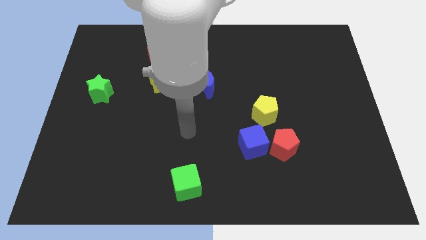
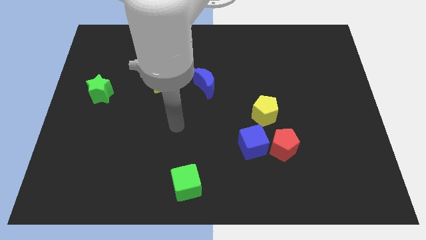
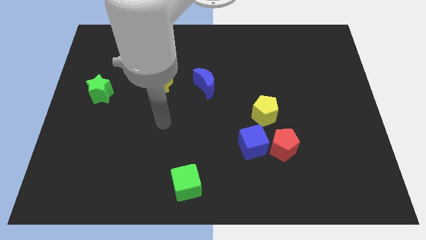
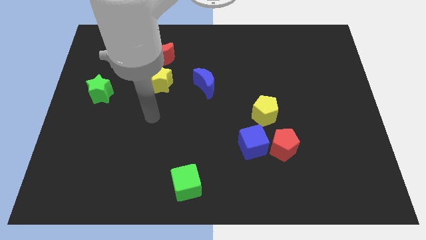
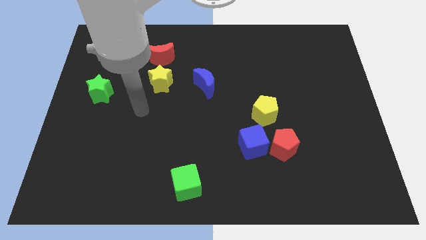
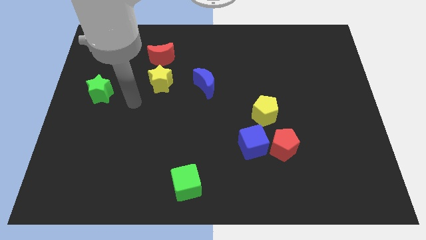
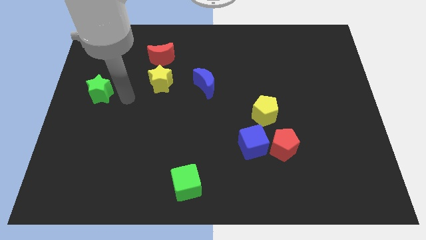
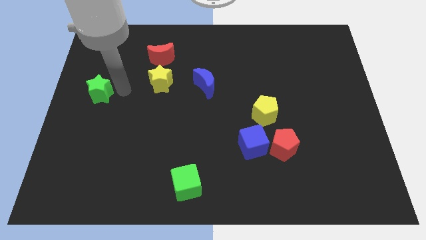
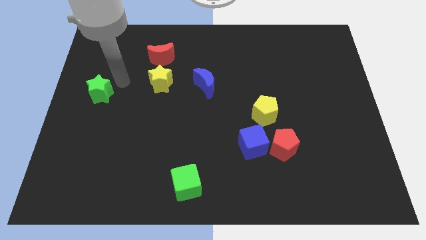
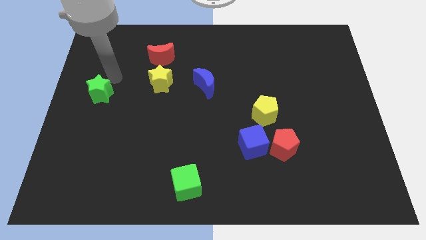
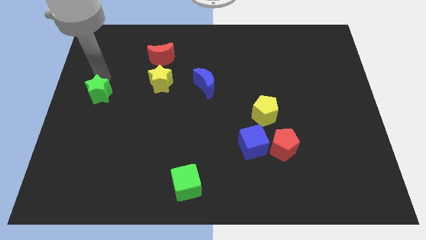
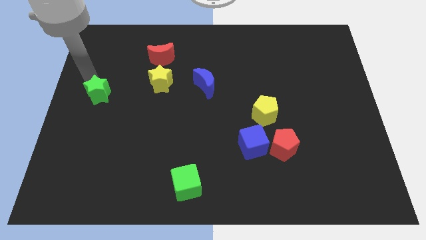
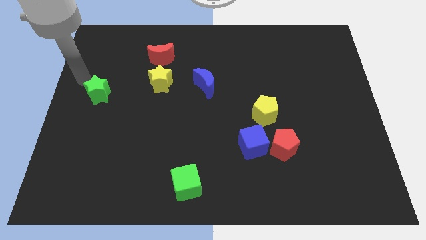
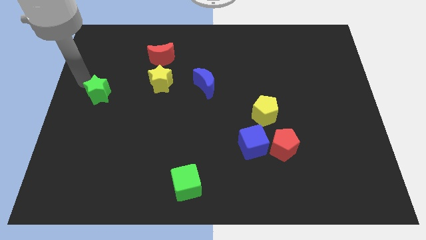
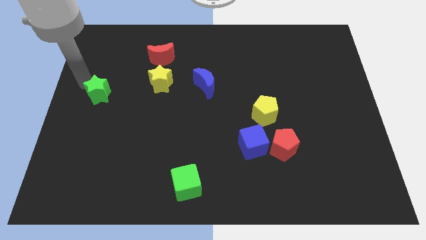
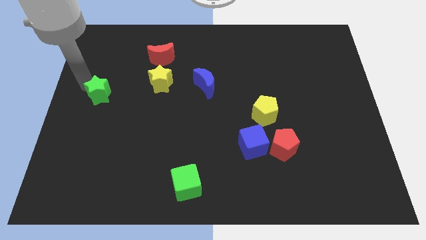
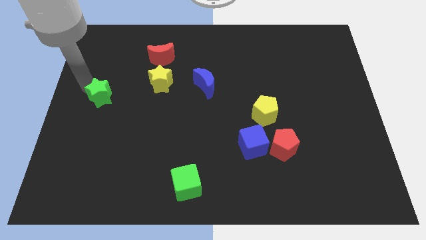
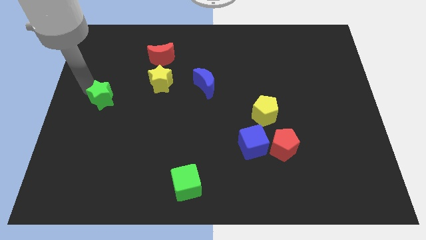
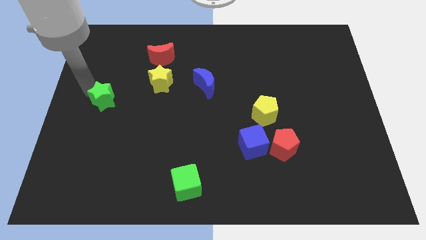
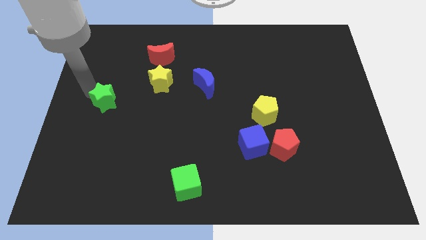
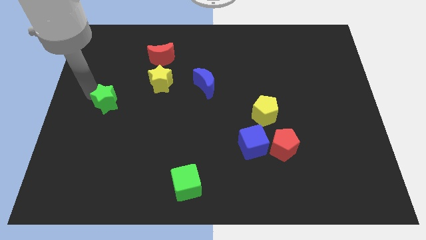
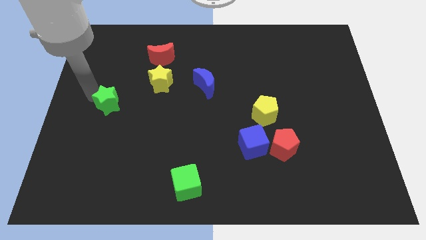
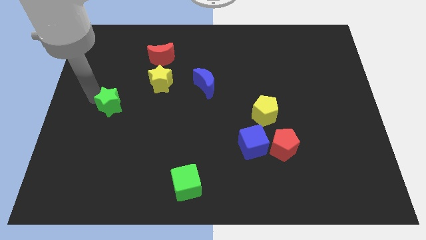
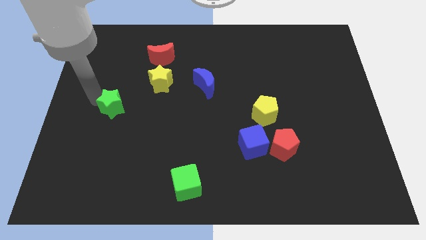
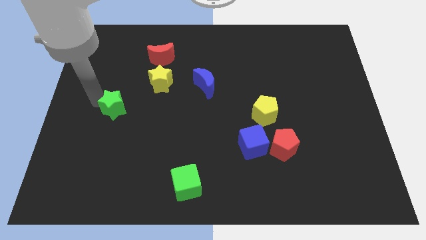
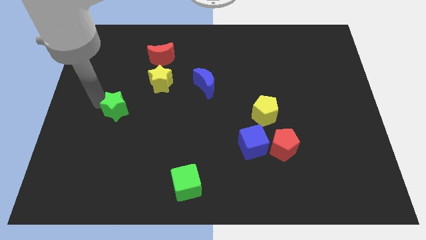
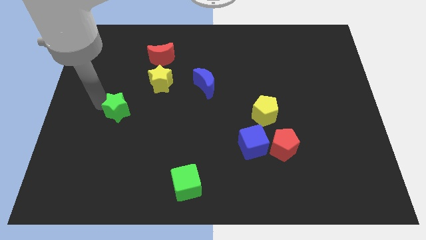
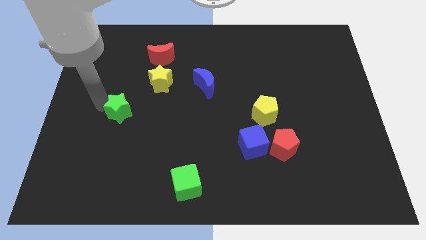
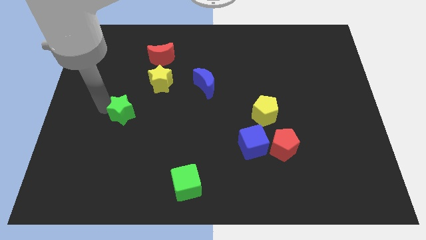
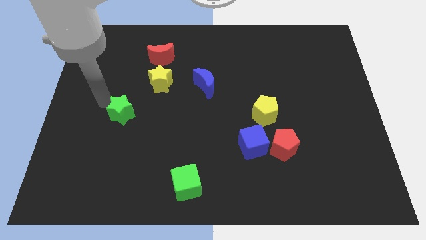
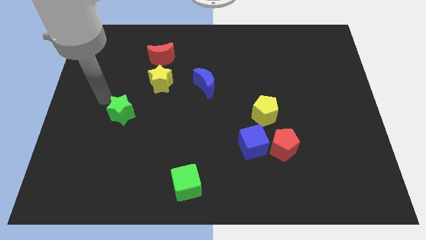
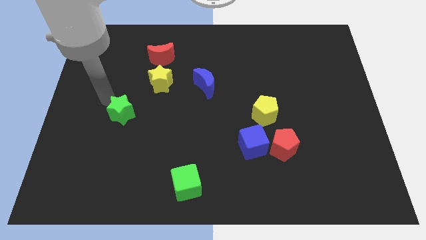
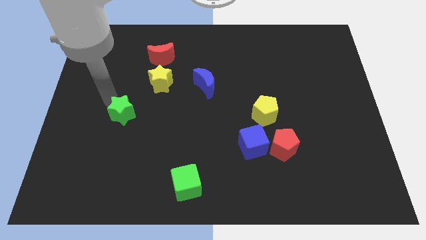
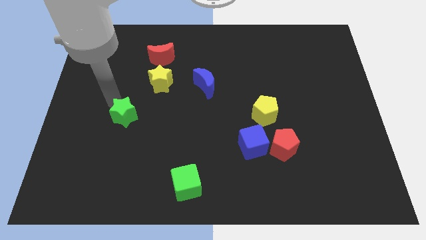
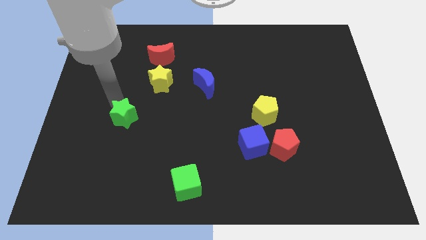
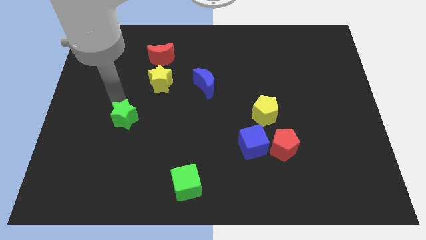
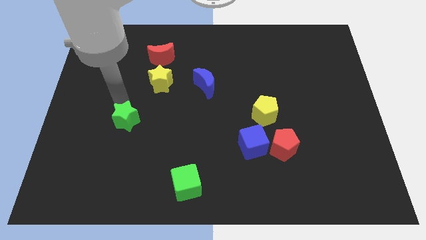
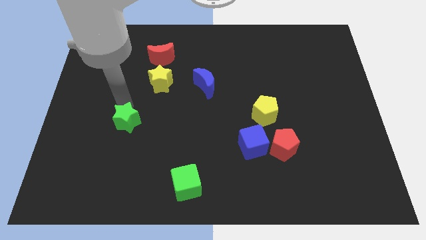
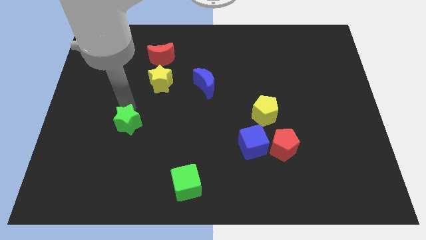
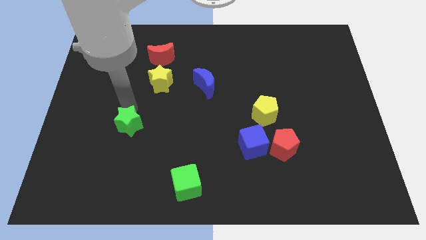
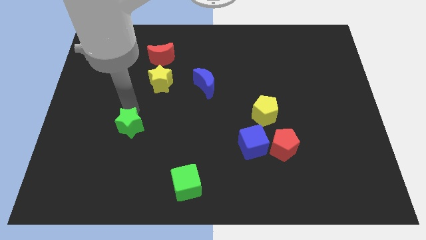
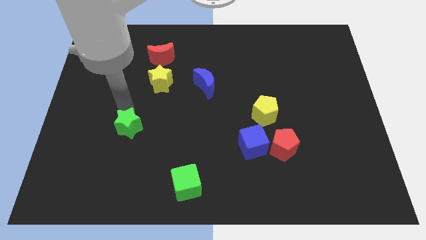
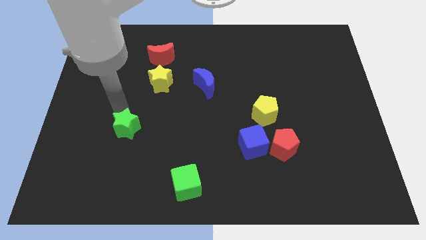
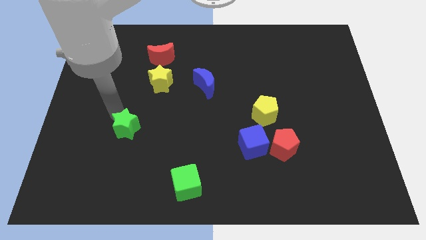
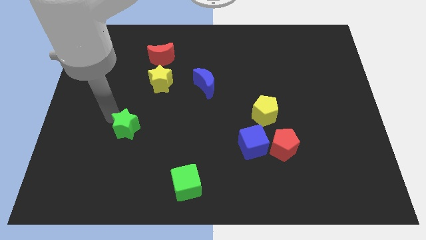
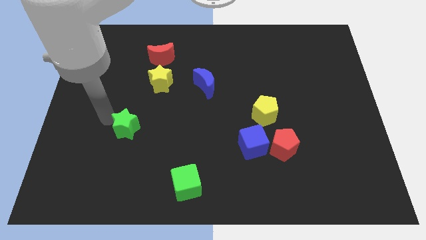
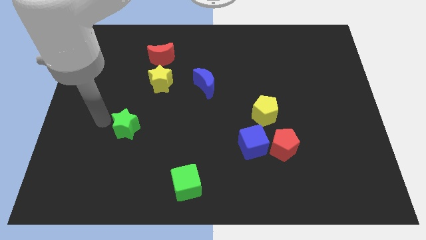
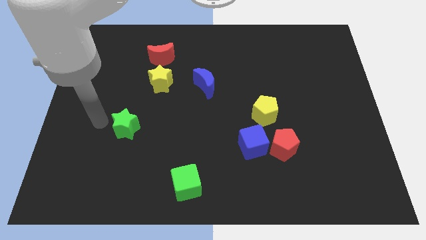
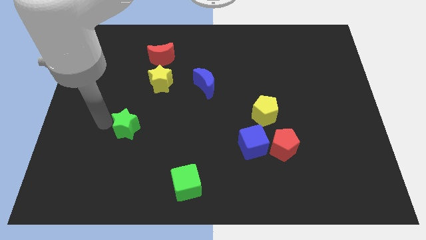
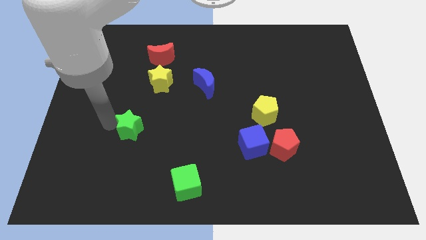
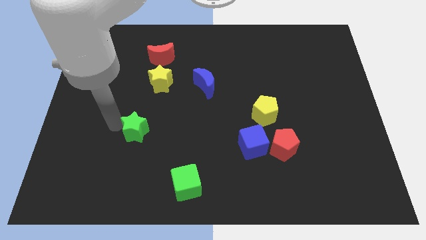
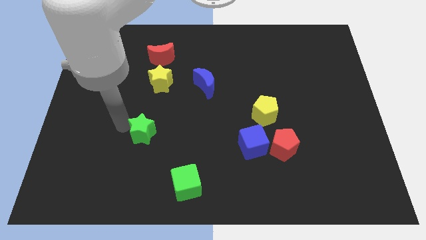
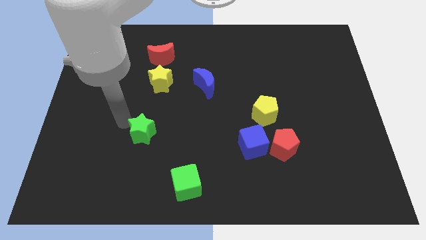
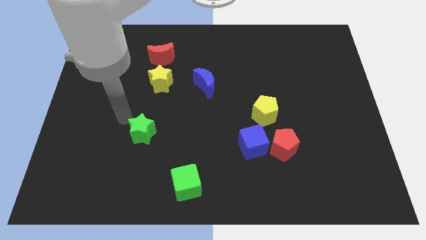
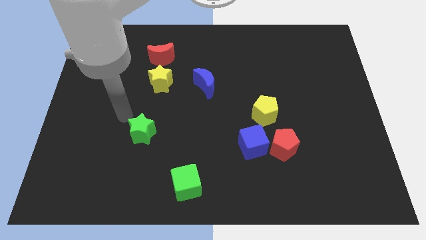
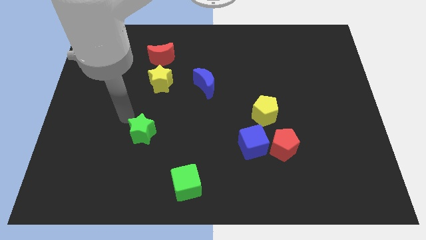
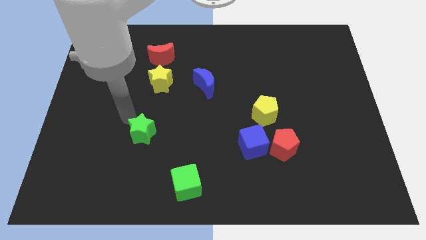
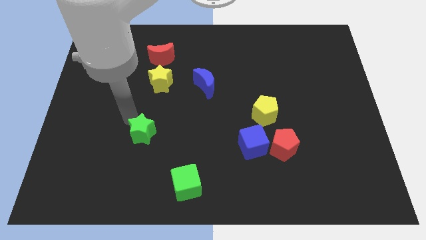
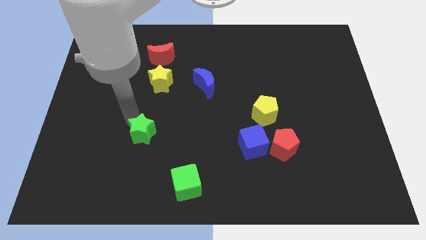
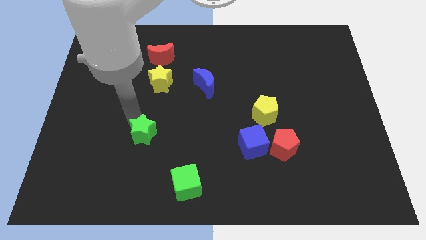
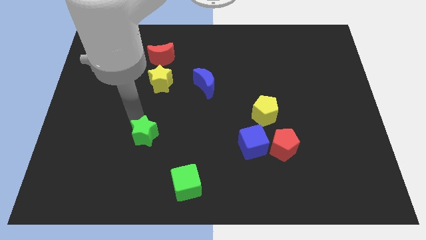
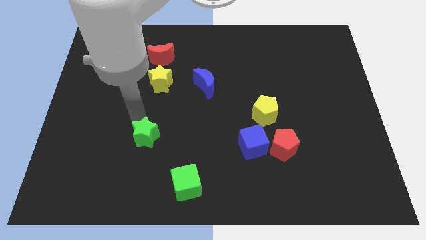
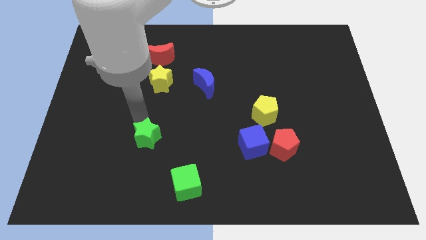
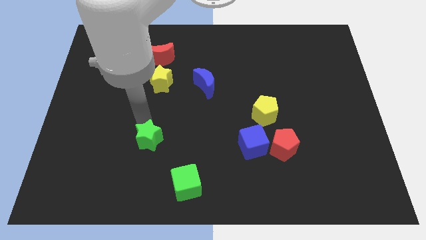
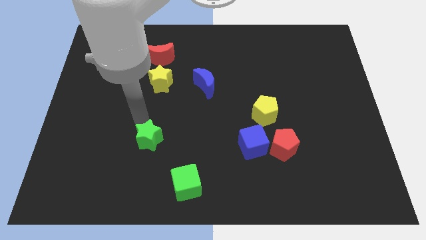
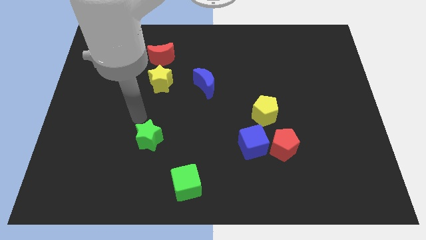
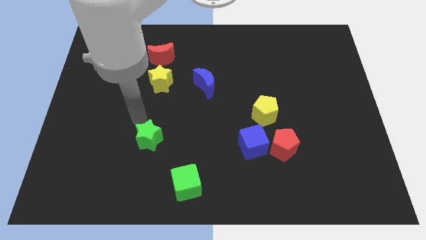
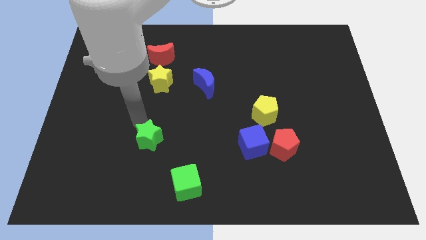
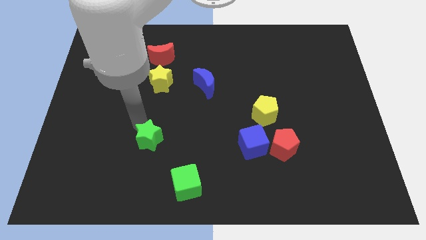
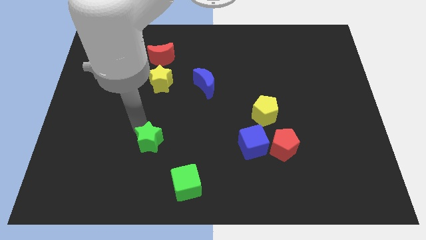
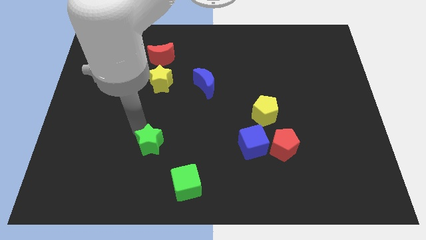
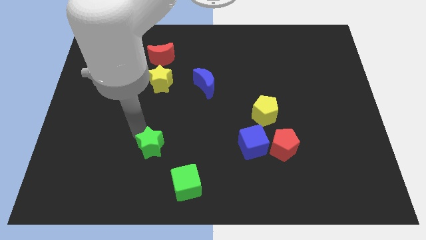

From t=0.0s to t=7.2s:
push the green star to the top left of the green cube
